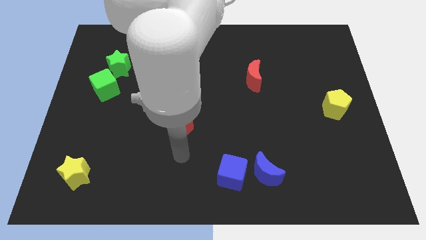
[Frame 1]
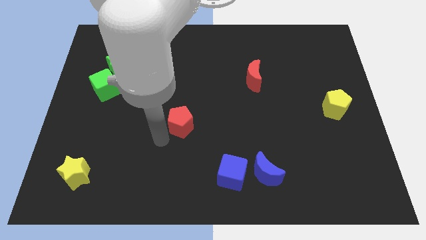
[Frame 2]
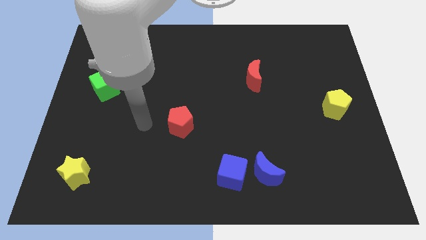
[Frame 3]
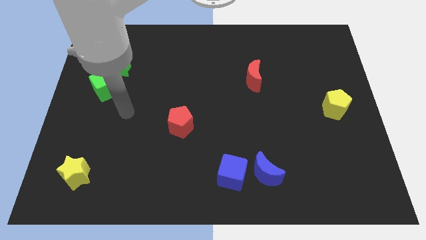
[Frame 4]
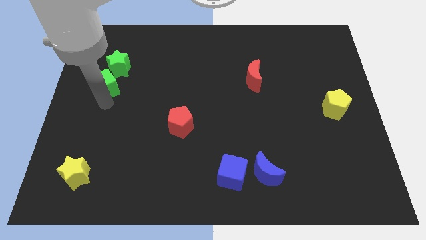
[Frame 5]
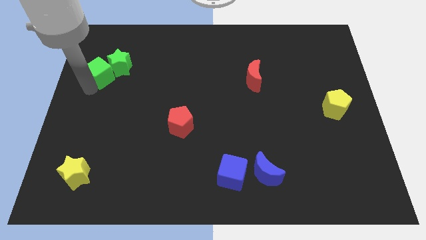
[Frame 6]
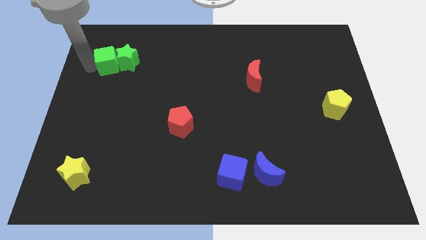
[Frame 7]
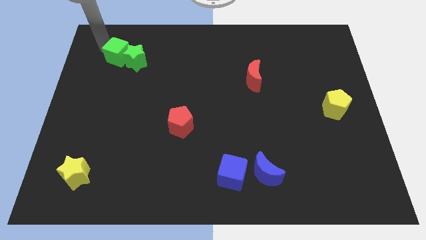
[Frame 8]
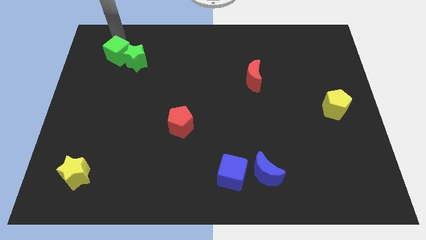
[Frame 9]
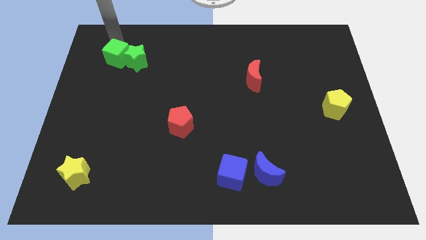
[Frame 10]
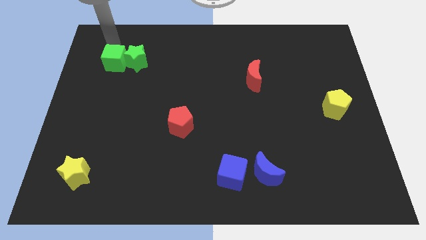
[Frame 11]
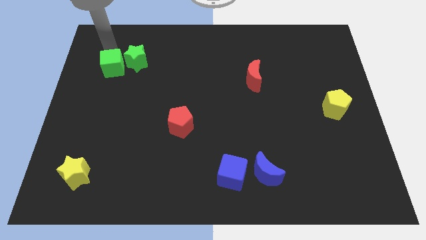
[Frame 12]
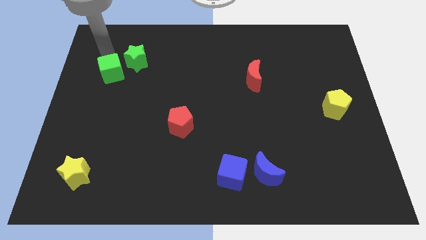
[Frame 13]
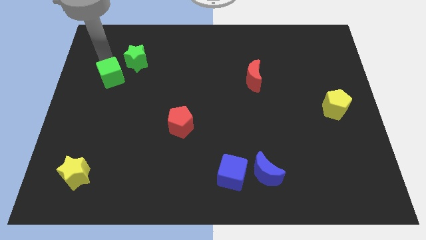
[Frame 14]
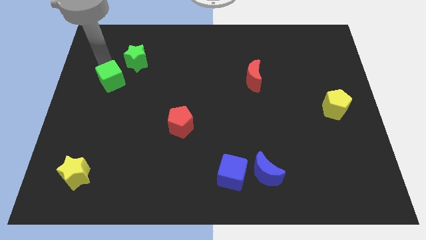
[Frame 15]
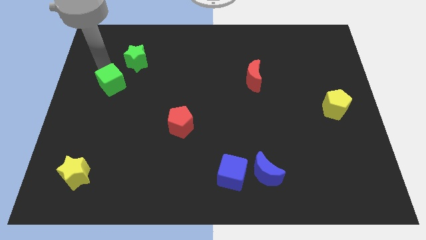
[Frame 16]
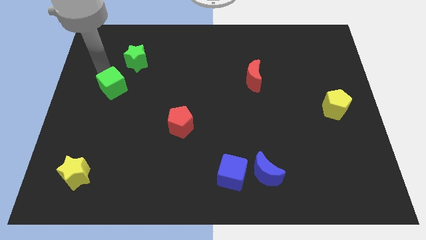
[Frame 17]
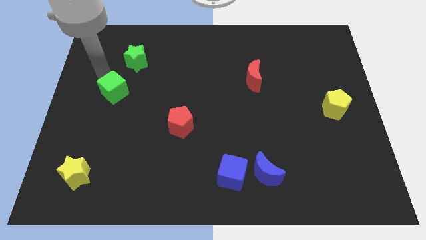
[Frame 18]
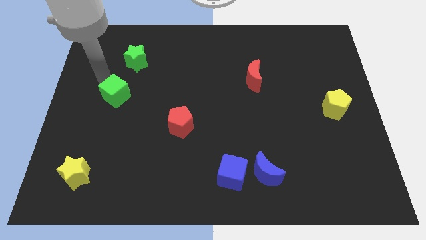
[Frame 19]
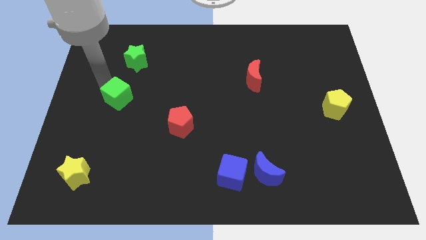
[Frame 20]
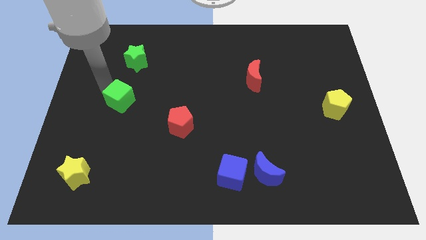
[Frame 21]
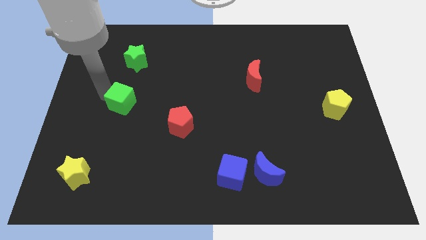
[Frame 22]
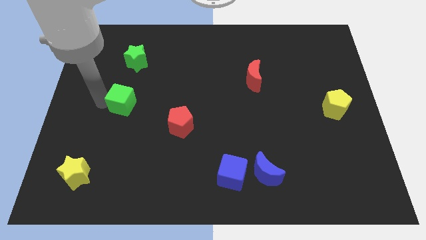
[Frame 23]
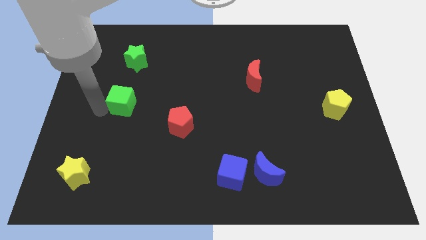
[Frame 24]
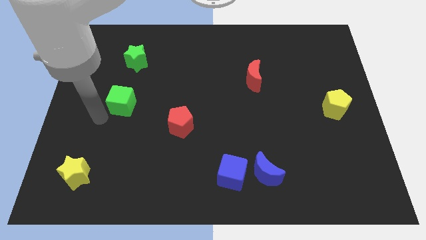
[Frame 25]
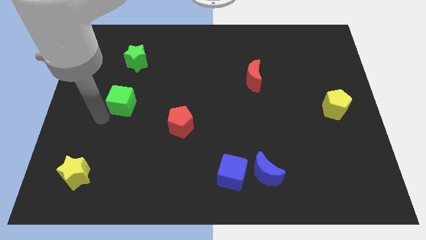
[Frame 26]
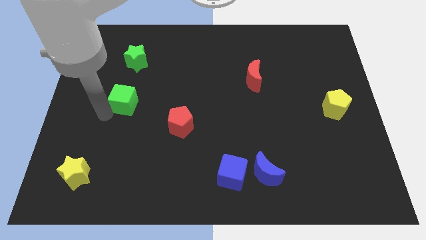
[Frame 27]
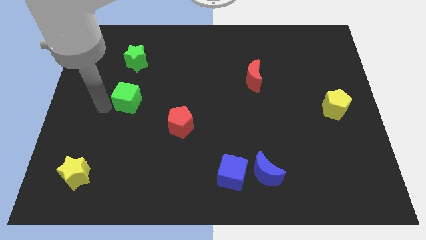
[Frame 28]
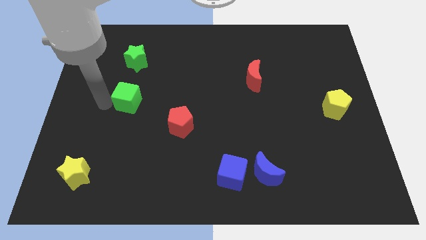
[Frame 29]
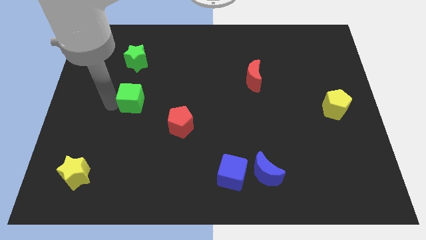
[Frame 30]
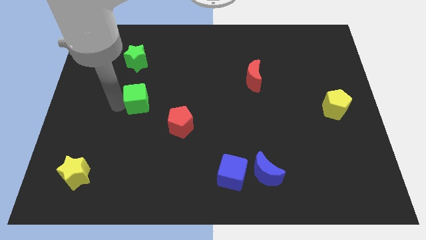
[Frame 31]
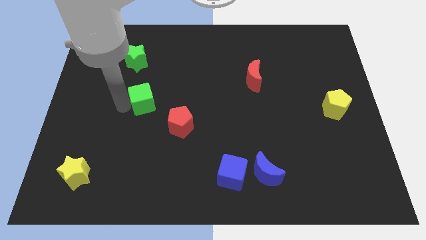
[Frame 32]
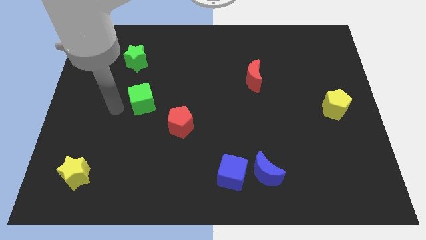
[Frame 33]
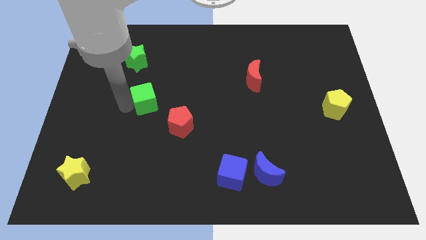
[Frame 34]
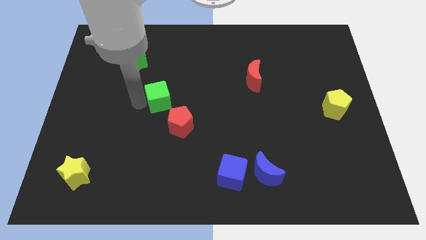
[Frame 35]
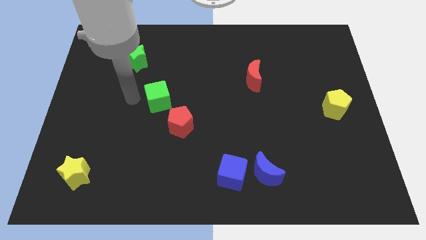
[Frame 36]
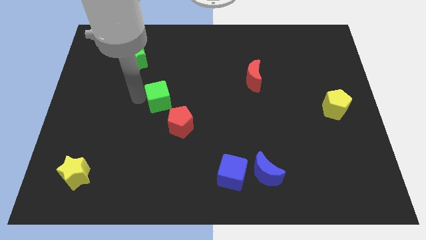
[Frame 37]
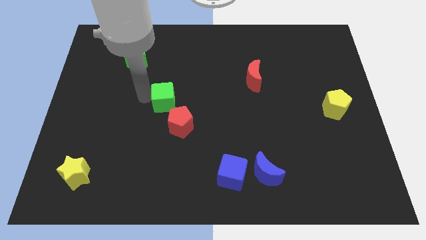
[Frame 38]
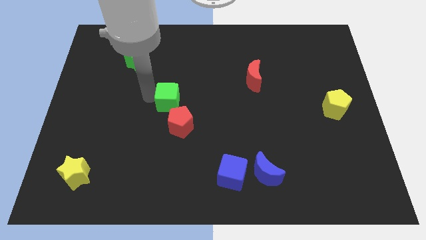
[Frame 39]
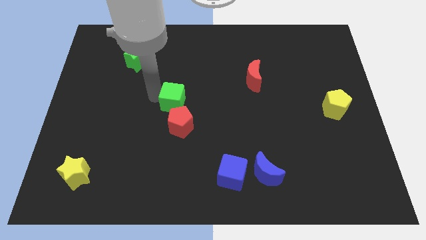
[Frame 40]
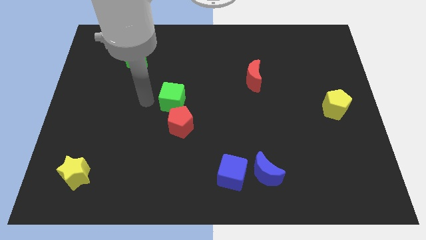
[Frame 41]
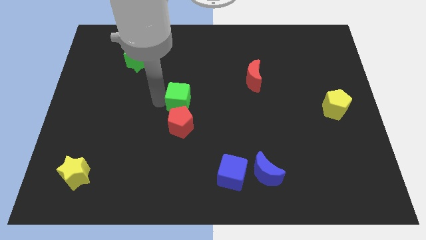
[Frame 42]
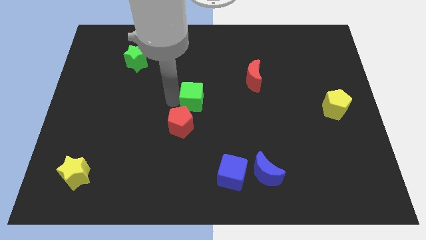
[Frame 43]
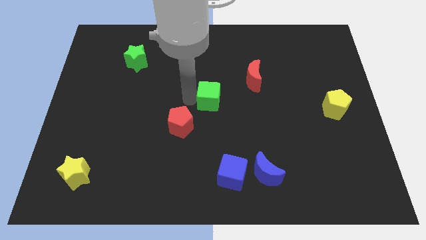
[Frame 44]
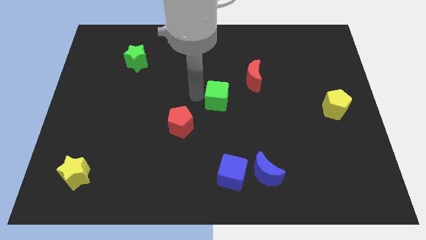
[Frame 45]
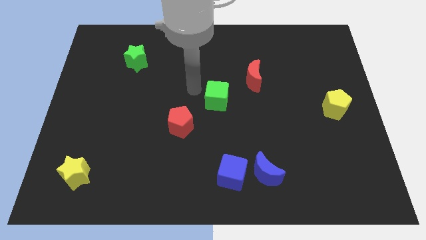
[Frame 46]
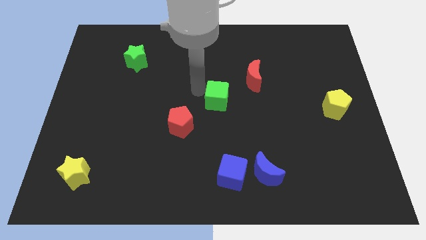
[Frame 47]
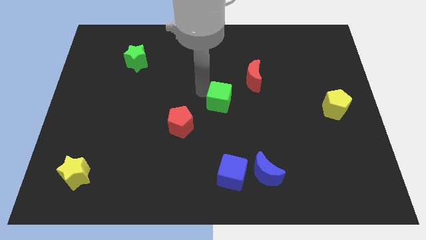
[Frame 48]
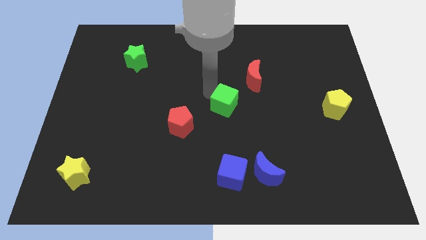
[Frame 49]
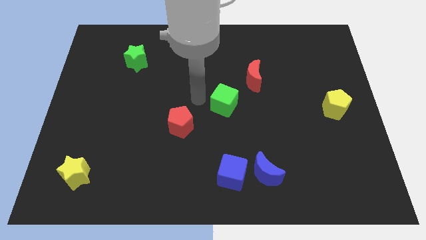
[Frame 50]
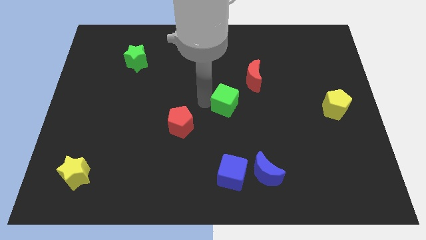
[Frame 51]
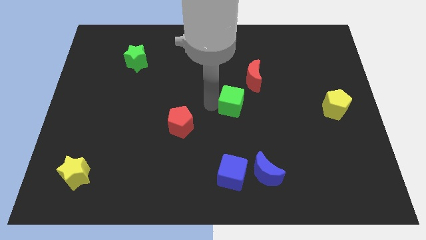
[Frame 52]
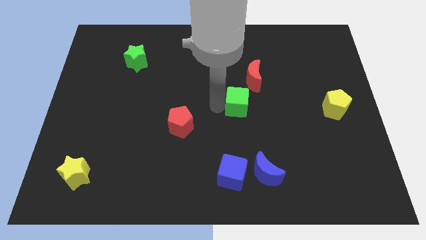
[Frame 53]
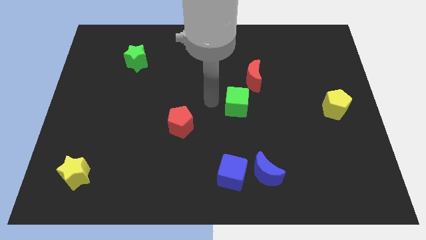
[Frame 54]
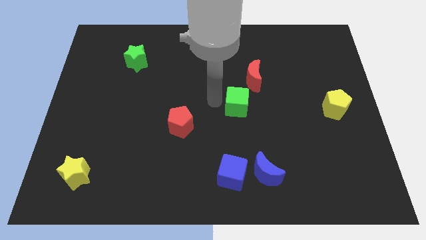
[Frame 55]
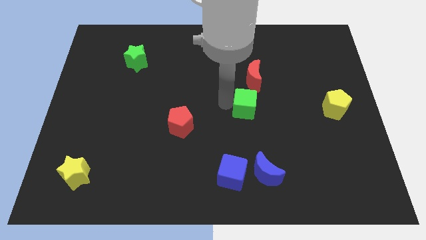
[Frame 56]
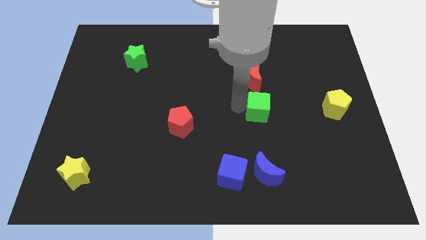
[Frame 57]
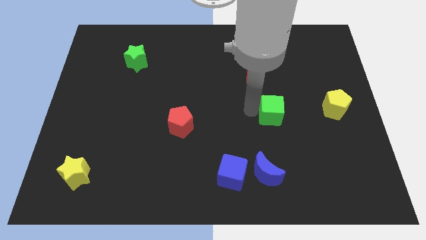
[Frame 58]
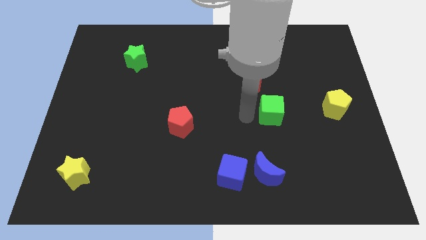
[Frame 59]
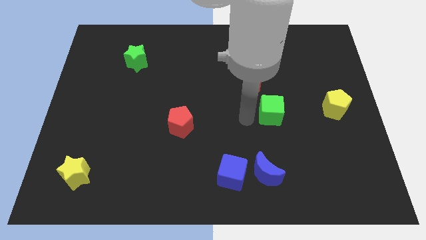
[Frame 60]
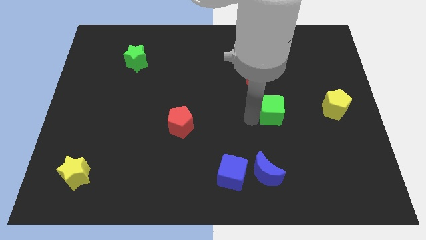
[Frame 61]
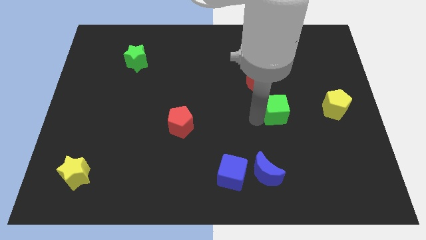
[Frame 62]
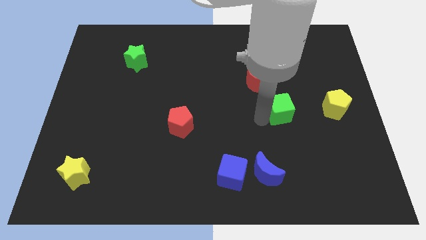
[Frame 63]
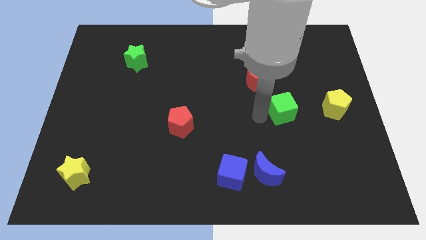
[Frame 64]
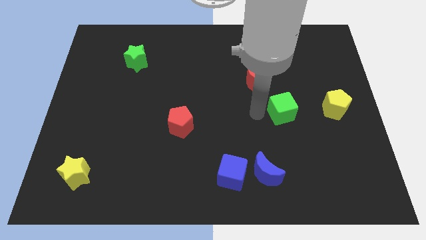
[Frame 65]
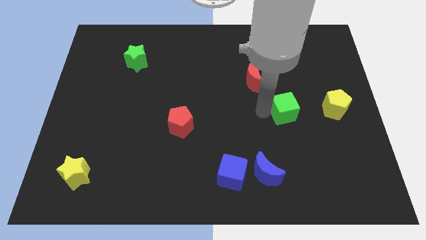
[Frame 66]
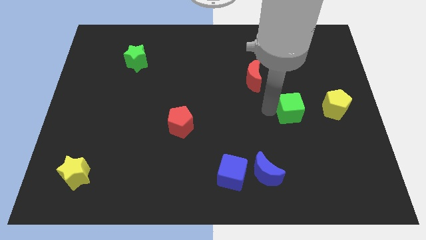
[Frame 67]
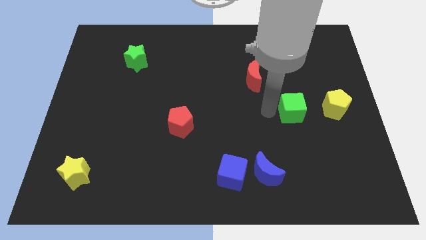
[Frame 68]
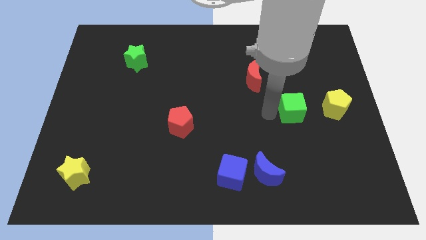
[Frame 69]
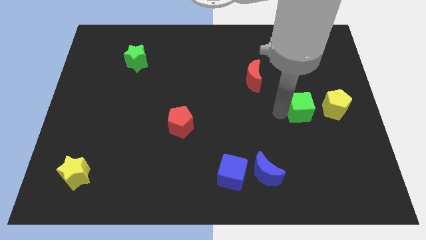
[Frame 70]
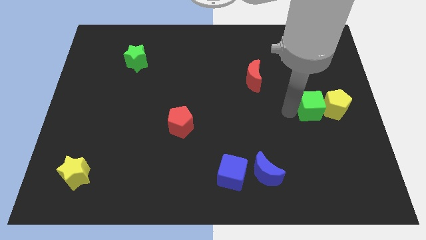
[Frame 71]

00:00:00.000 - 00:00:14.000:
slide the green cube next to the yellow pentagon
